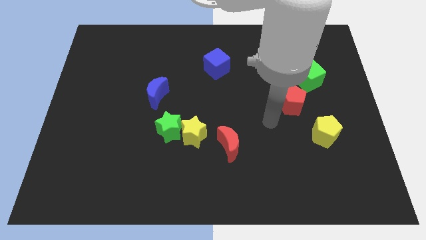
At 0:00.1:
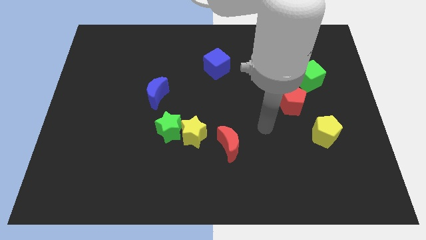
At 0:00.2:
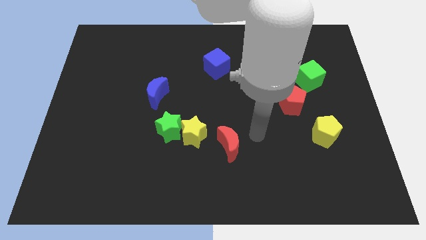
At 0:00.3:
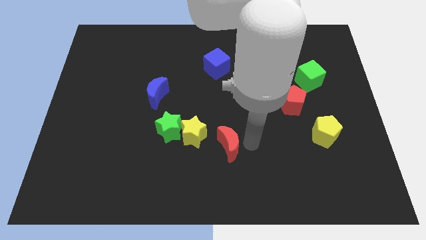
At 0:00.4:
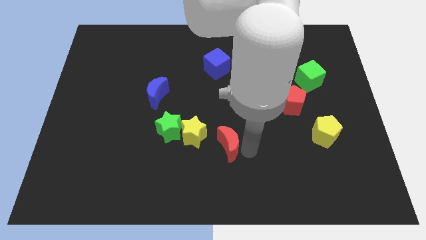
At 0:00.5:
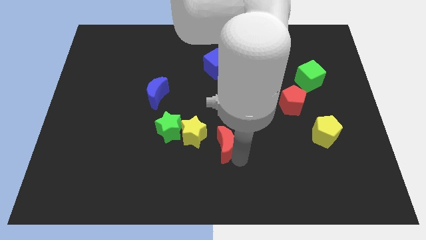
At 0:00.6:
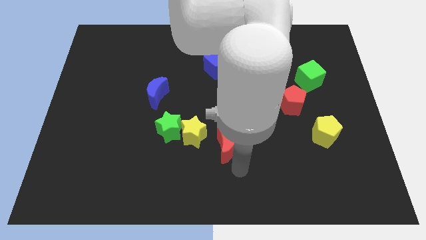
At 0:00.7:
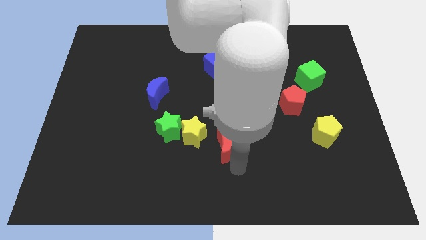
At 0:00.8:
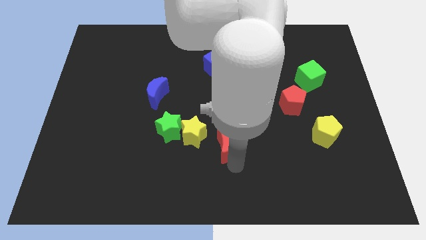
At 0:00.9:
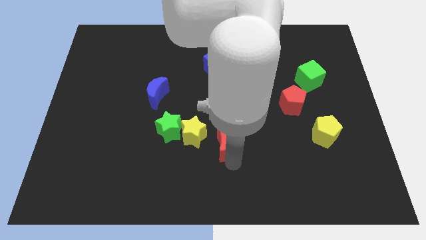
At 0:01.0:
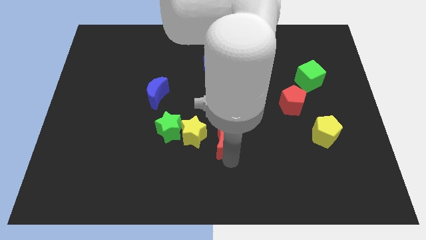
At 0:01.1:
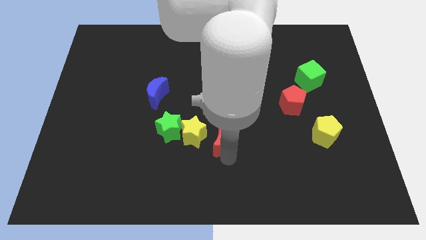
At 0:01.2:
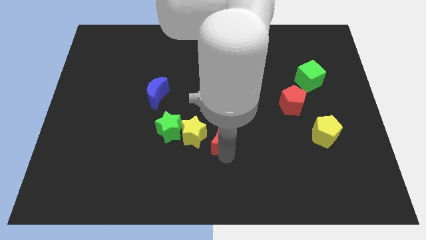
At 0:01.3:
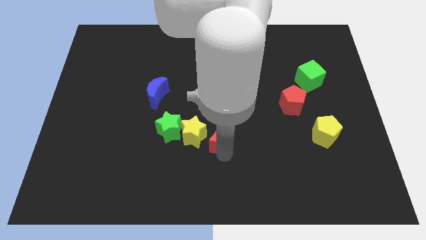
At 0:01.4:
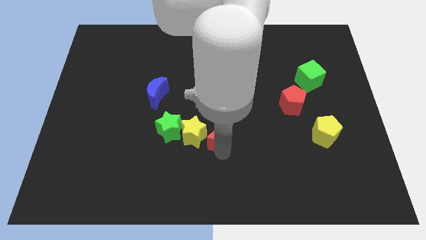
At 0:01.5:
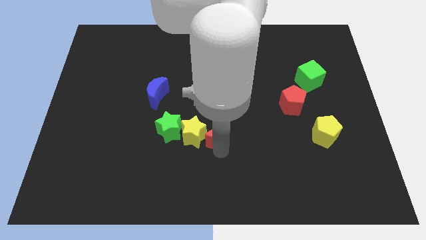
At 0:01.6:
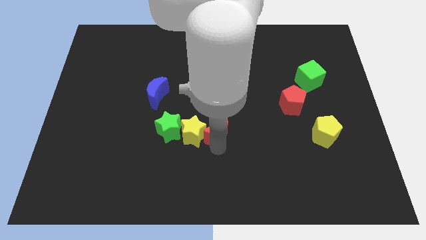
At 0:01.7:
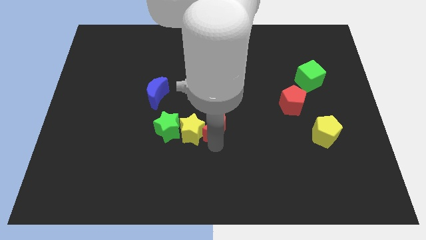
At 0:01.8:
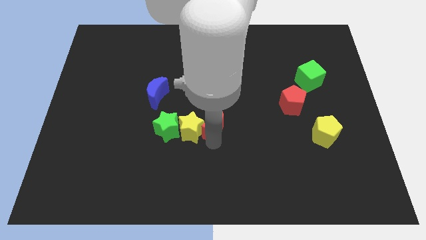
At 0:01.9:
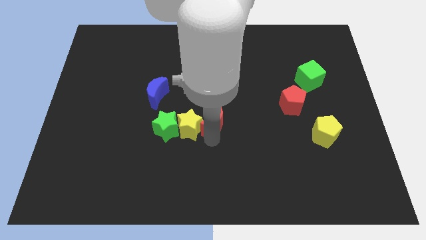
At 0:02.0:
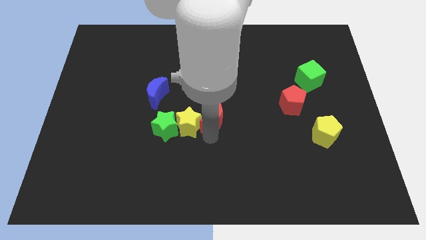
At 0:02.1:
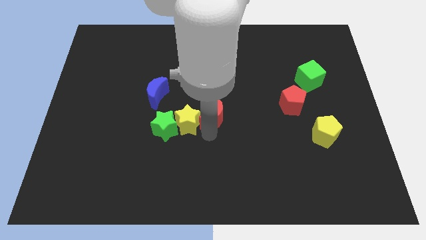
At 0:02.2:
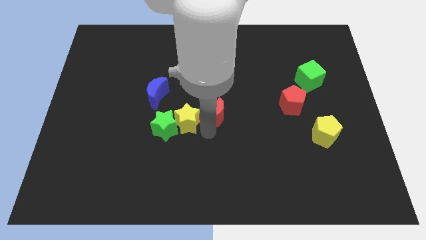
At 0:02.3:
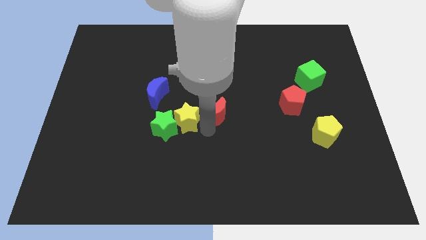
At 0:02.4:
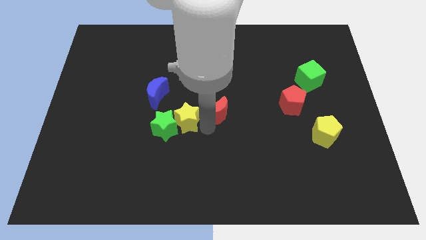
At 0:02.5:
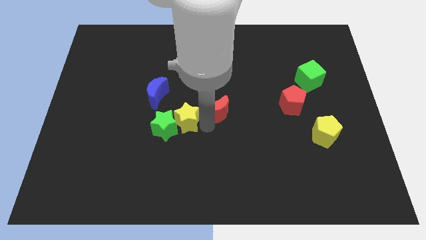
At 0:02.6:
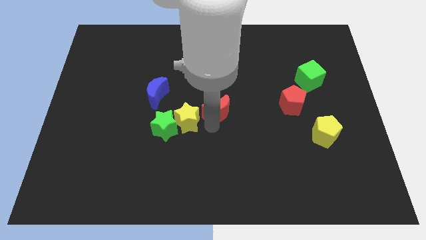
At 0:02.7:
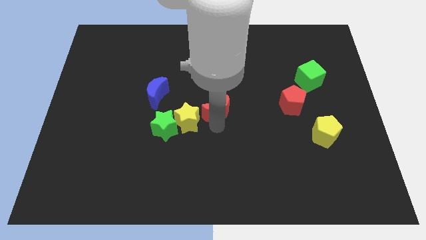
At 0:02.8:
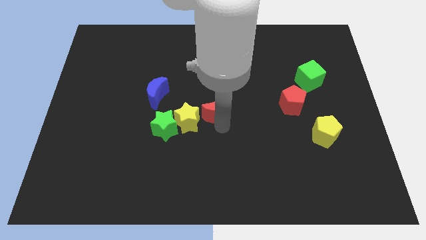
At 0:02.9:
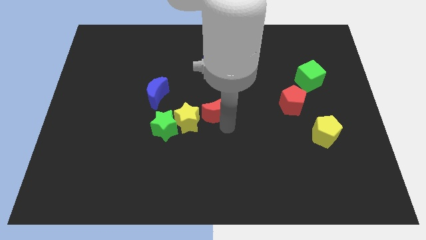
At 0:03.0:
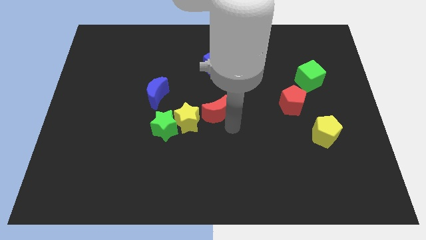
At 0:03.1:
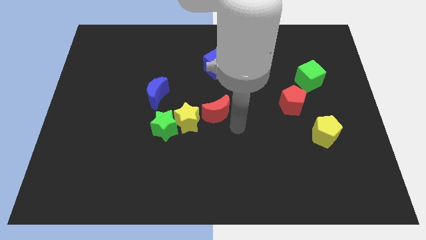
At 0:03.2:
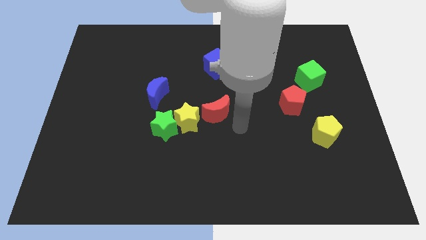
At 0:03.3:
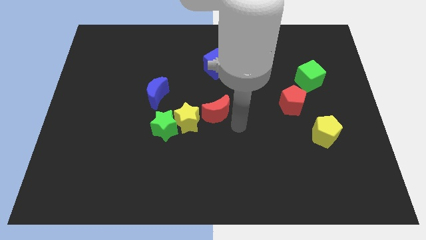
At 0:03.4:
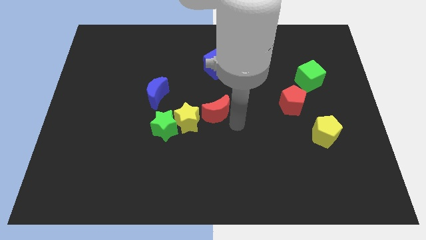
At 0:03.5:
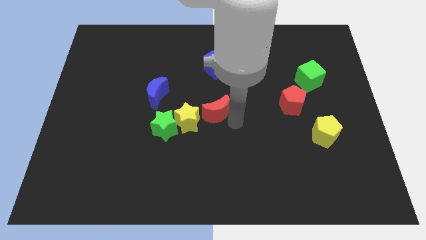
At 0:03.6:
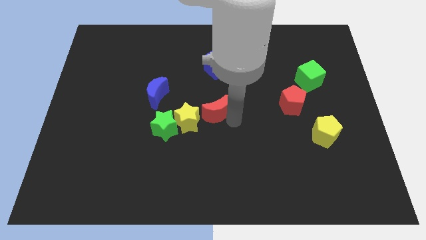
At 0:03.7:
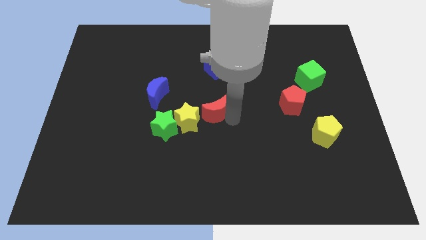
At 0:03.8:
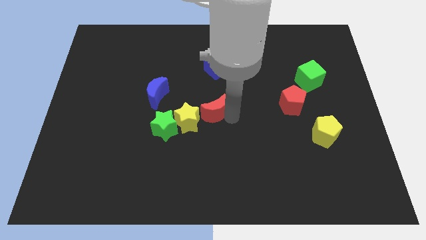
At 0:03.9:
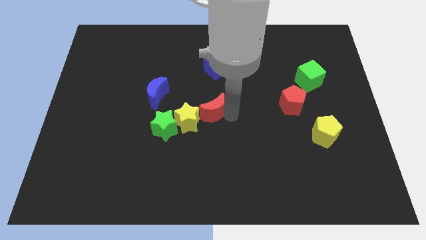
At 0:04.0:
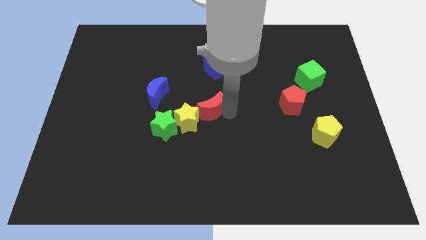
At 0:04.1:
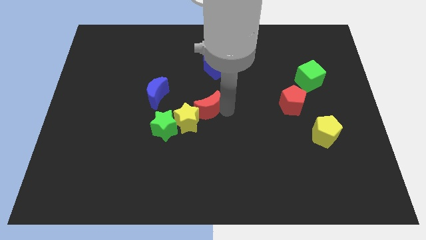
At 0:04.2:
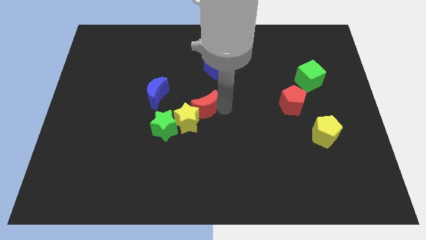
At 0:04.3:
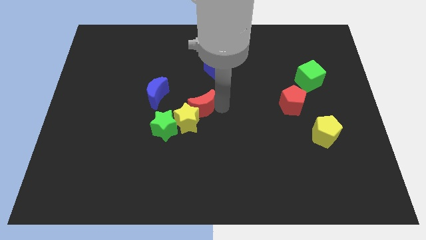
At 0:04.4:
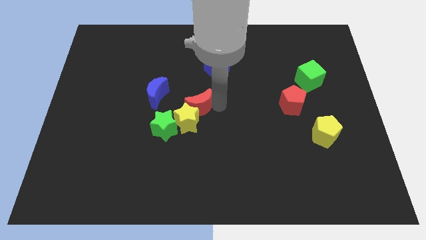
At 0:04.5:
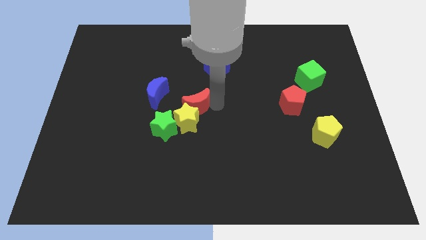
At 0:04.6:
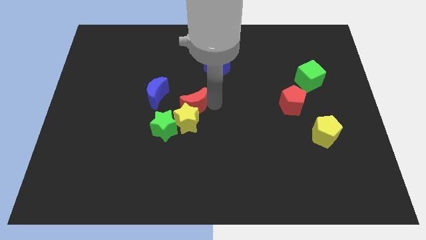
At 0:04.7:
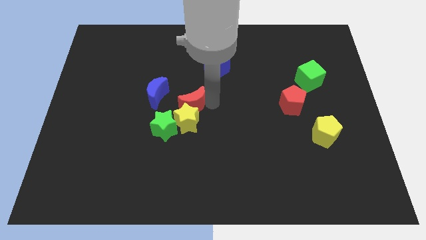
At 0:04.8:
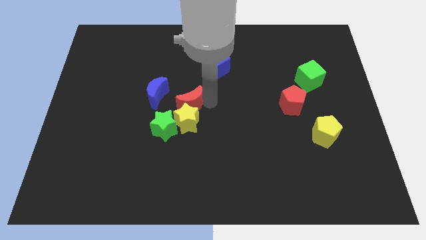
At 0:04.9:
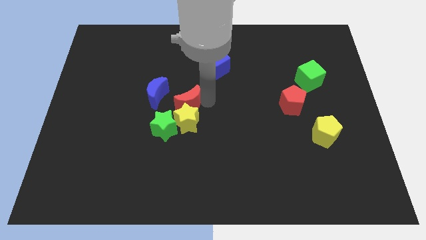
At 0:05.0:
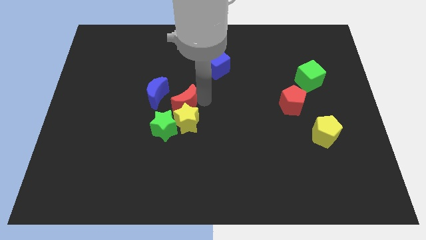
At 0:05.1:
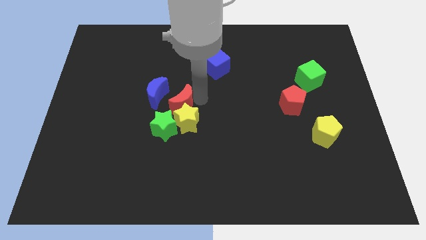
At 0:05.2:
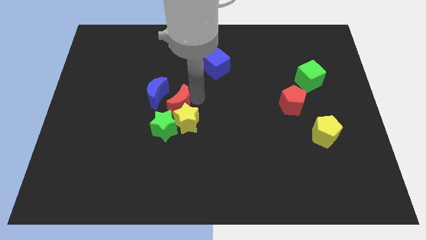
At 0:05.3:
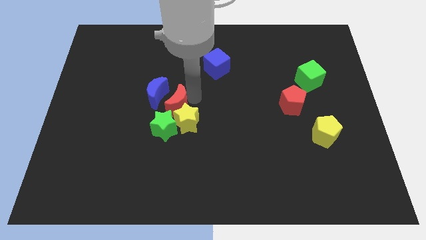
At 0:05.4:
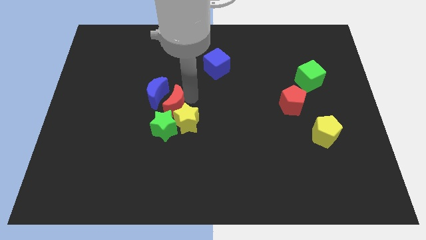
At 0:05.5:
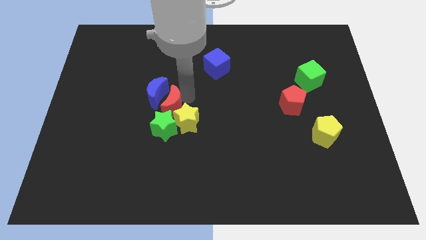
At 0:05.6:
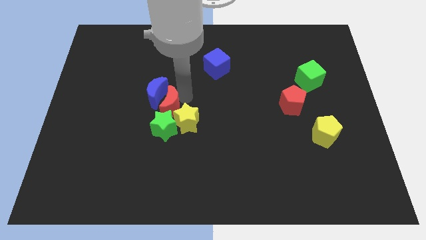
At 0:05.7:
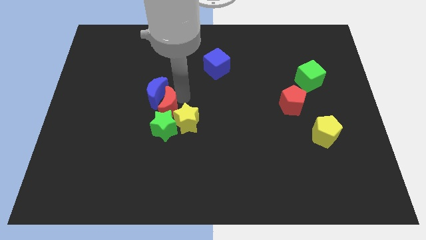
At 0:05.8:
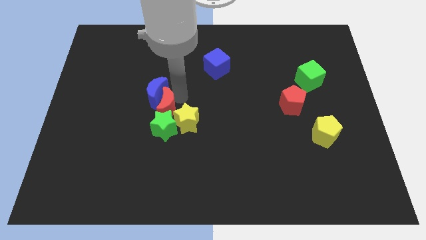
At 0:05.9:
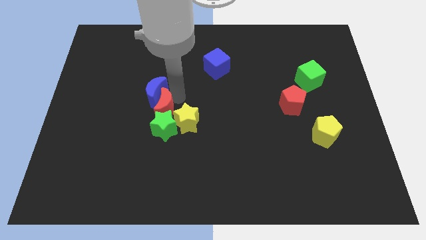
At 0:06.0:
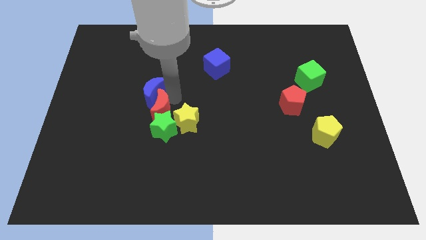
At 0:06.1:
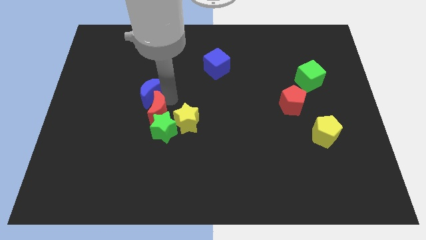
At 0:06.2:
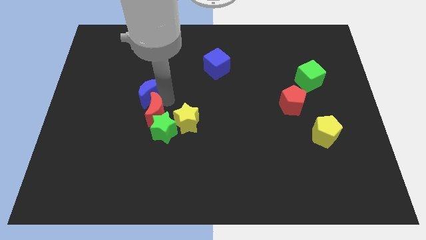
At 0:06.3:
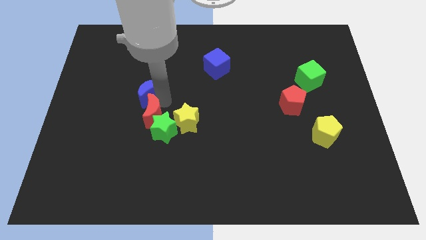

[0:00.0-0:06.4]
slide the red moon to the bottom left side of the blue moon
